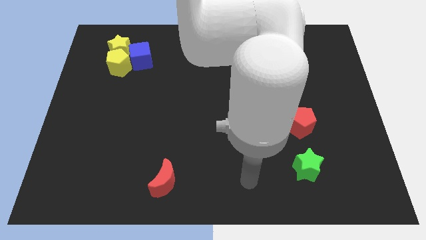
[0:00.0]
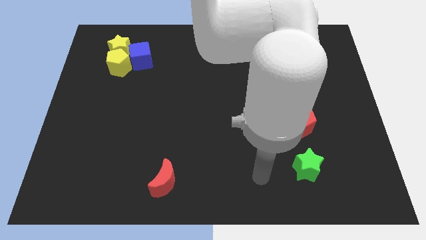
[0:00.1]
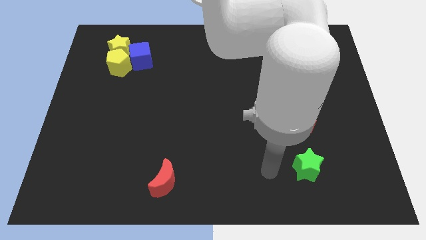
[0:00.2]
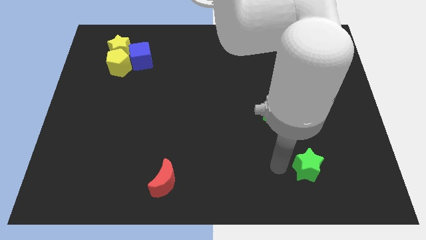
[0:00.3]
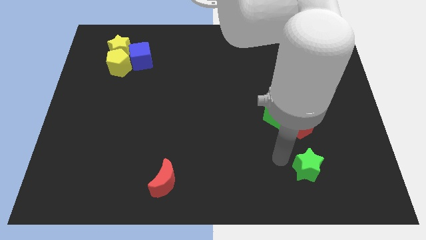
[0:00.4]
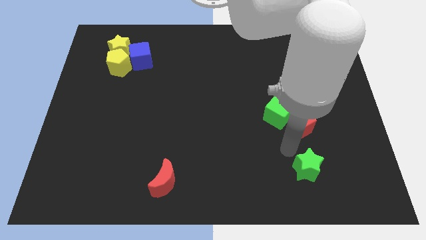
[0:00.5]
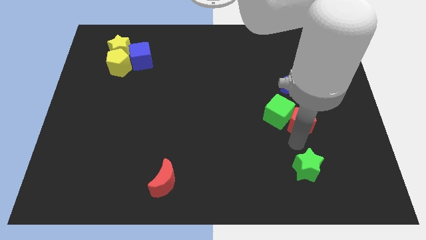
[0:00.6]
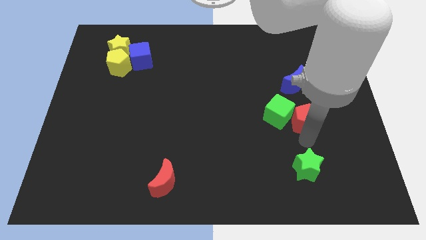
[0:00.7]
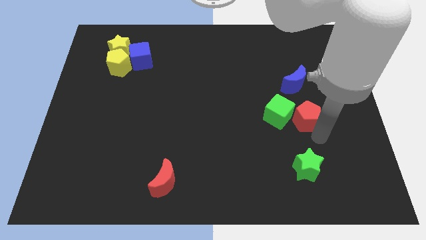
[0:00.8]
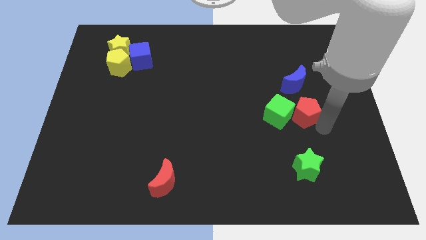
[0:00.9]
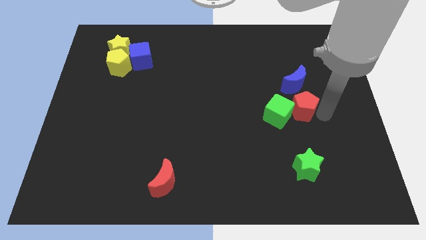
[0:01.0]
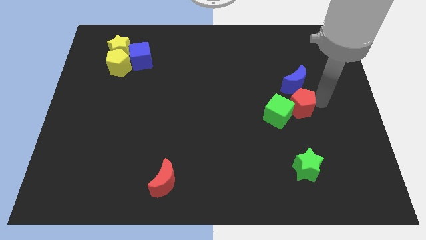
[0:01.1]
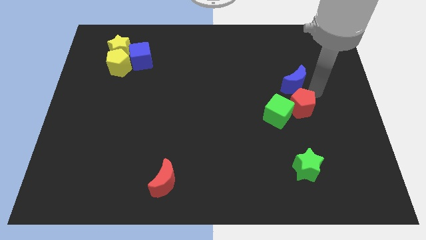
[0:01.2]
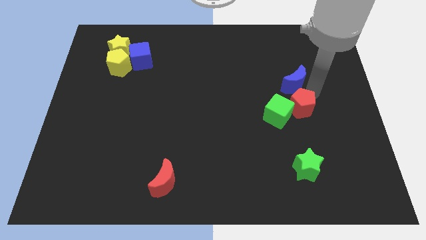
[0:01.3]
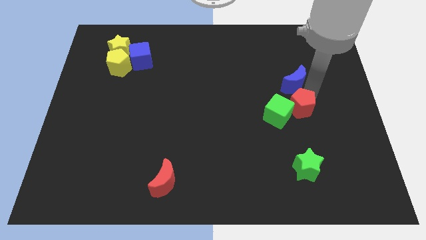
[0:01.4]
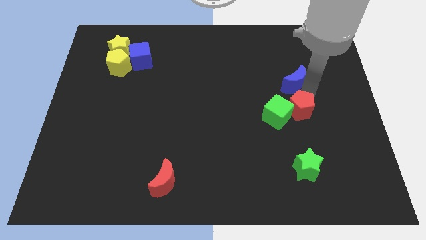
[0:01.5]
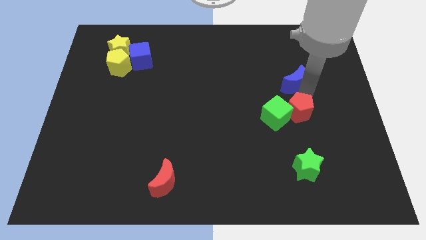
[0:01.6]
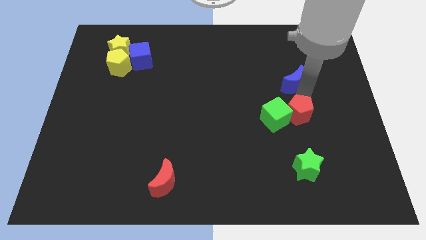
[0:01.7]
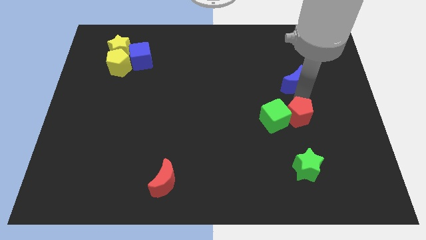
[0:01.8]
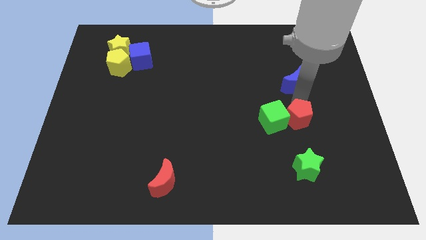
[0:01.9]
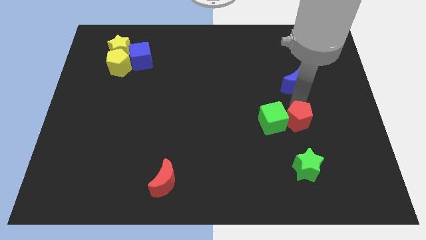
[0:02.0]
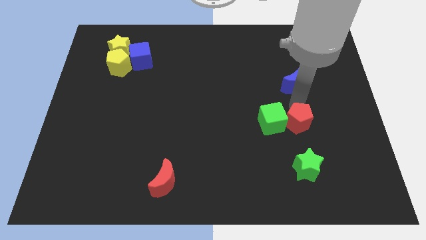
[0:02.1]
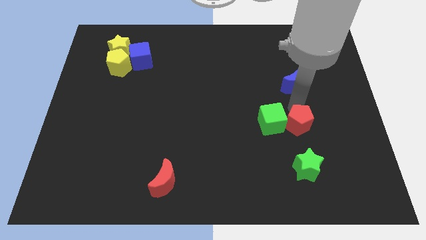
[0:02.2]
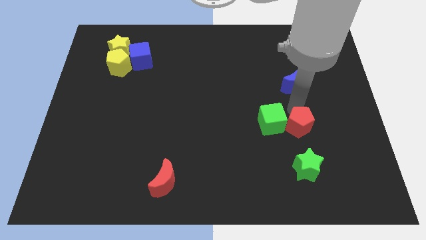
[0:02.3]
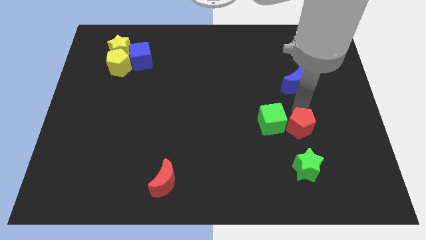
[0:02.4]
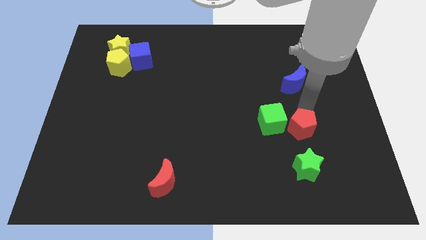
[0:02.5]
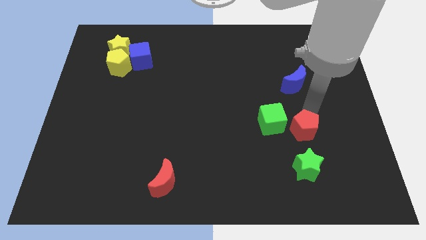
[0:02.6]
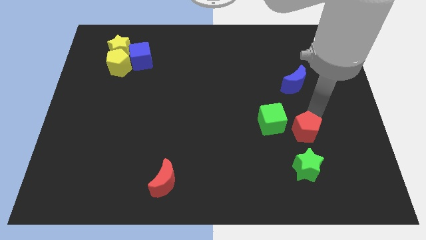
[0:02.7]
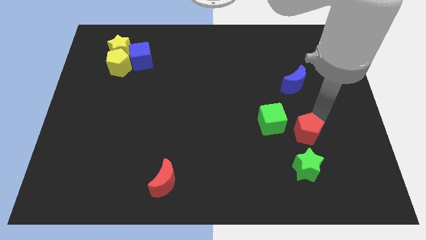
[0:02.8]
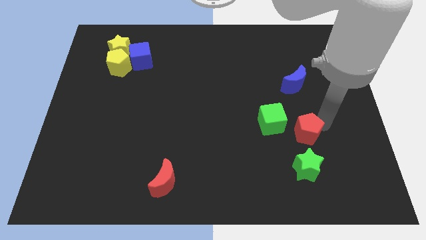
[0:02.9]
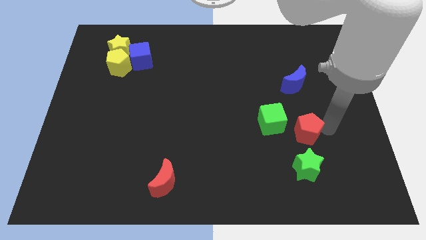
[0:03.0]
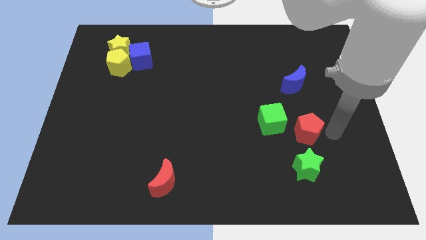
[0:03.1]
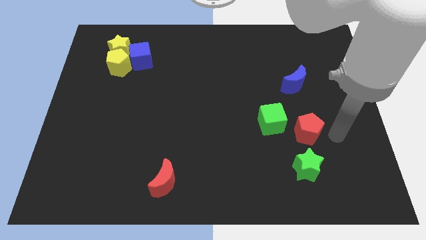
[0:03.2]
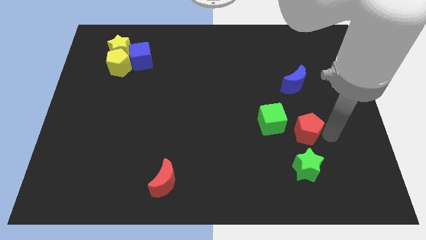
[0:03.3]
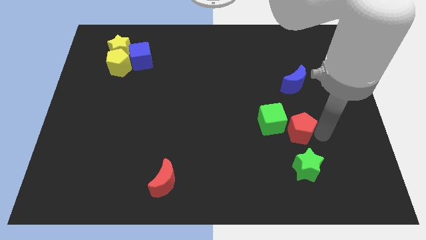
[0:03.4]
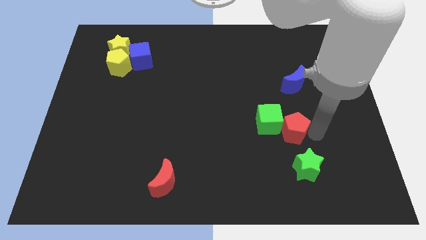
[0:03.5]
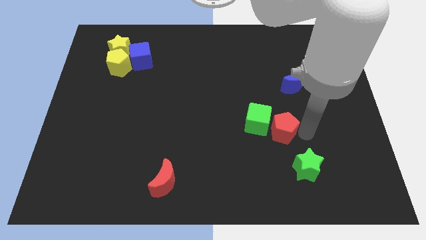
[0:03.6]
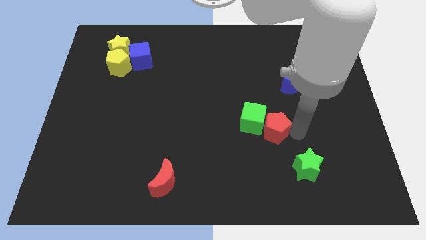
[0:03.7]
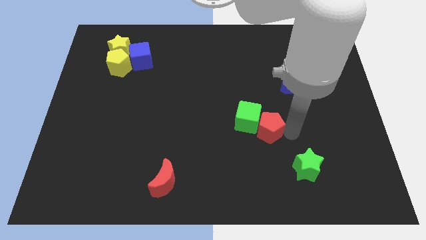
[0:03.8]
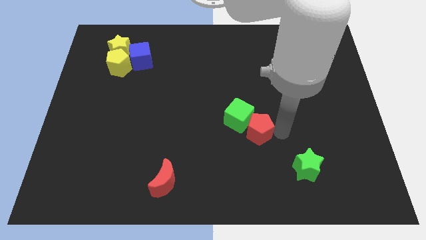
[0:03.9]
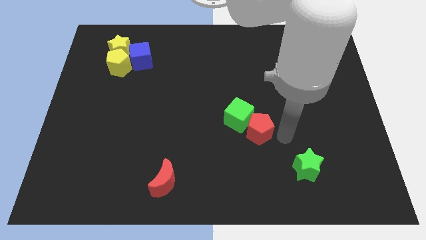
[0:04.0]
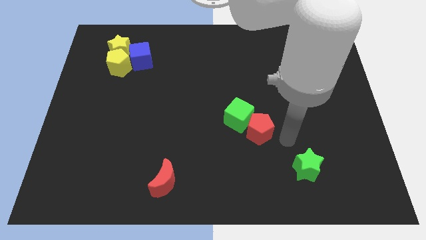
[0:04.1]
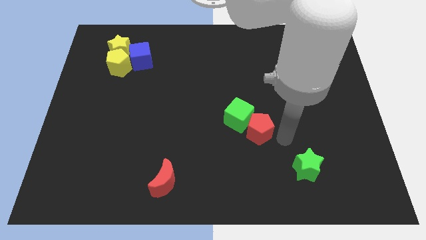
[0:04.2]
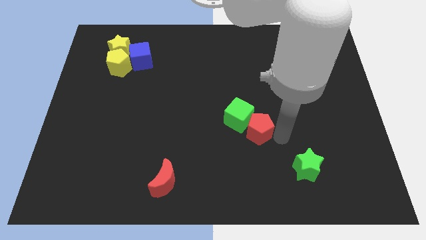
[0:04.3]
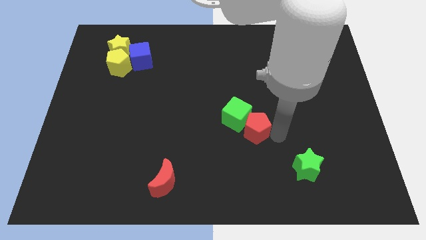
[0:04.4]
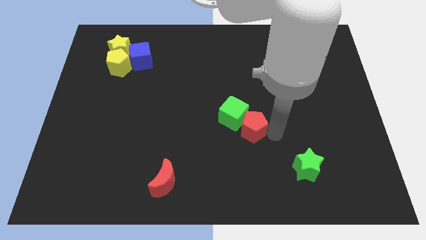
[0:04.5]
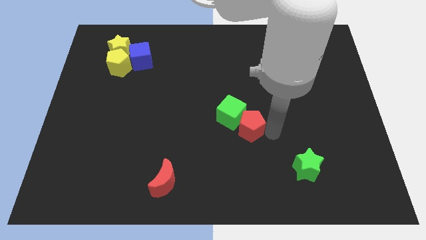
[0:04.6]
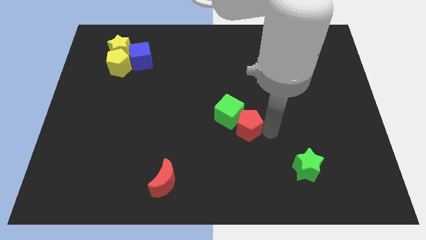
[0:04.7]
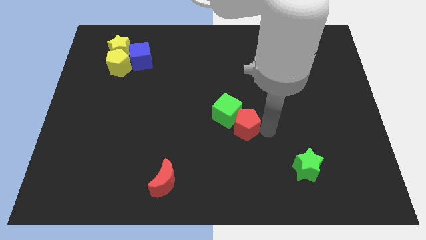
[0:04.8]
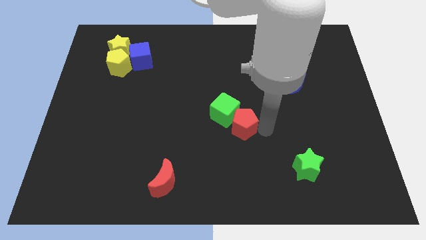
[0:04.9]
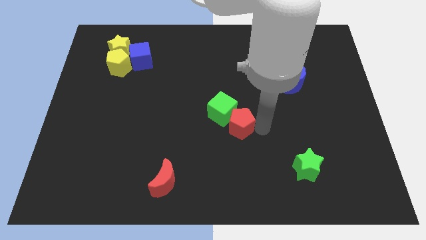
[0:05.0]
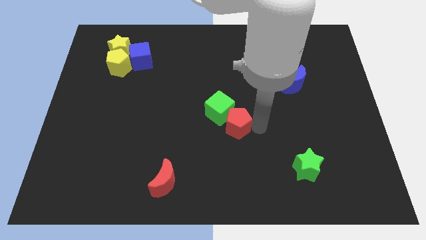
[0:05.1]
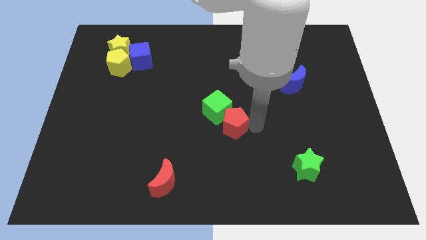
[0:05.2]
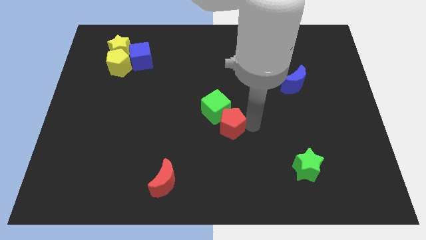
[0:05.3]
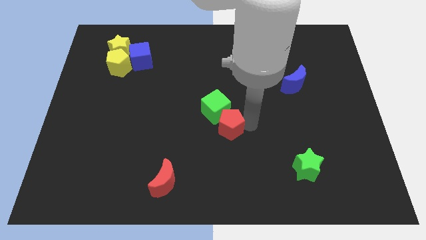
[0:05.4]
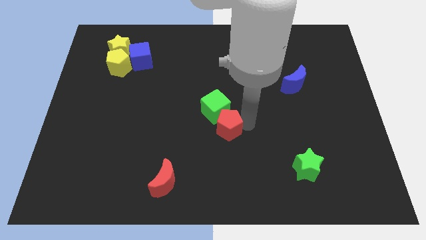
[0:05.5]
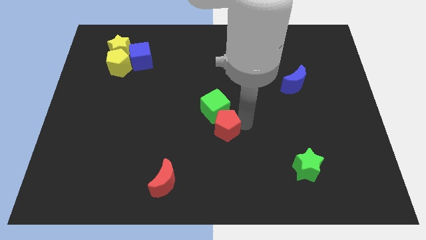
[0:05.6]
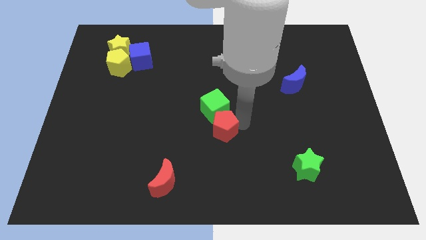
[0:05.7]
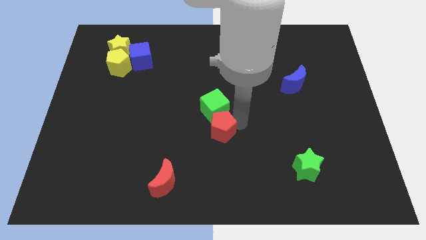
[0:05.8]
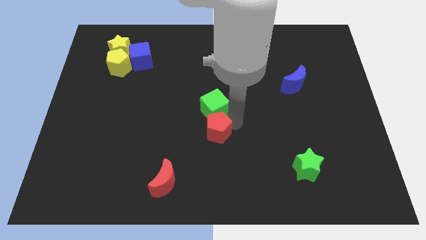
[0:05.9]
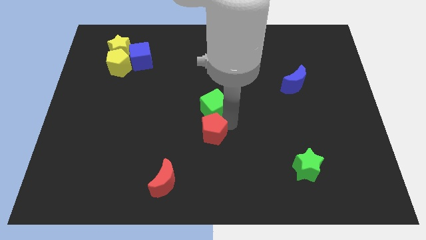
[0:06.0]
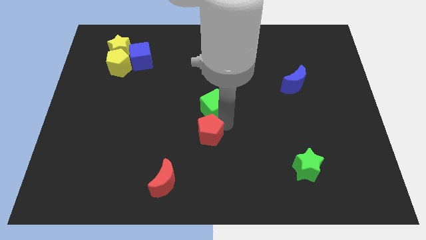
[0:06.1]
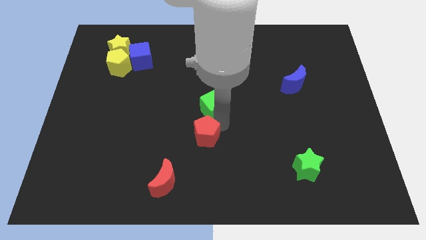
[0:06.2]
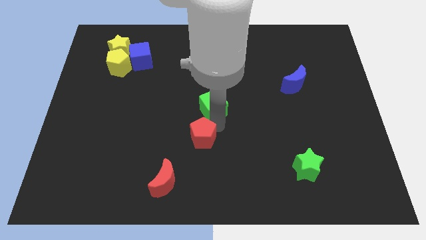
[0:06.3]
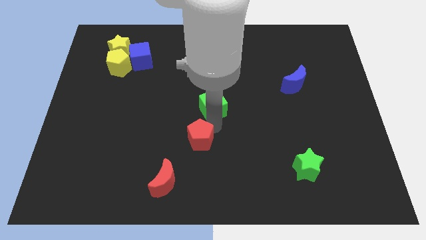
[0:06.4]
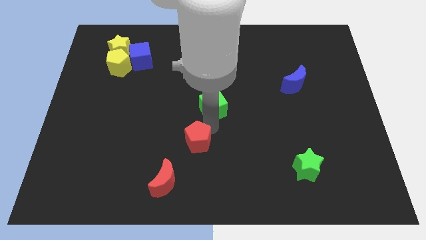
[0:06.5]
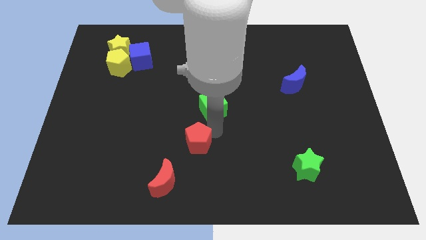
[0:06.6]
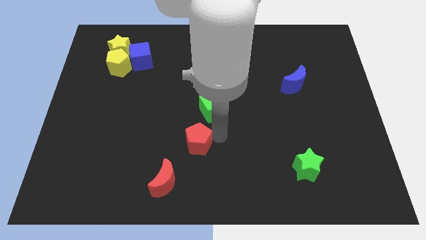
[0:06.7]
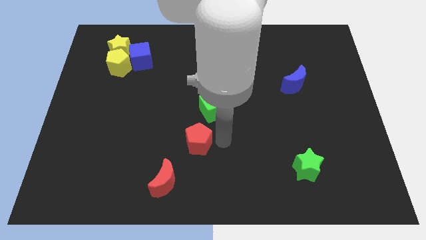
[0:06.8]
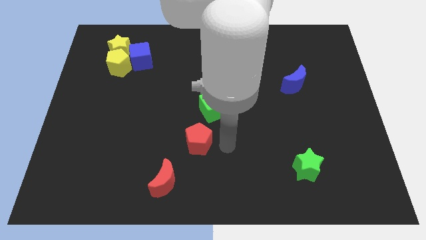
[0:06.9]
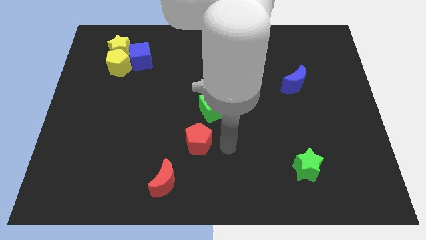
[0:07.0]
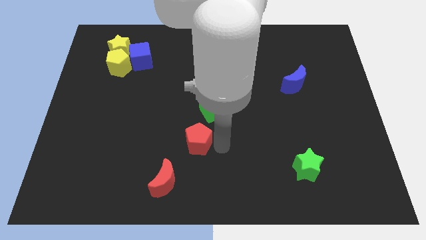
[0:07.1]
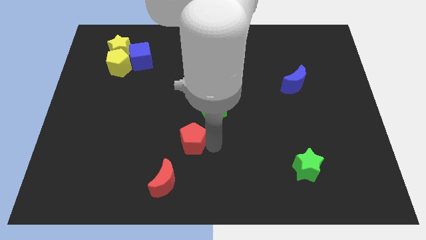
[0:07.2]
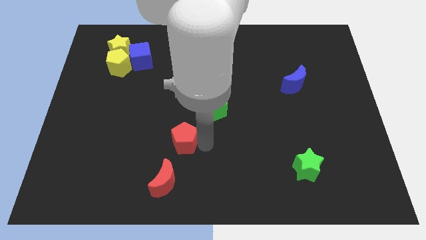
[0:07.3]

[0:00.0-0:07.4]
slide the red pentagon to the top of the red moon
